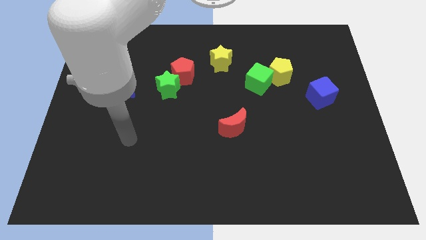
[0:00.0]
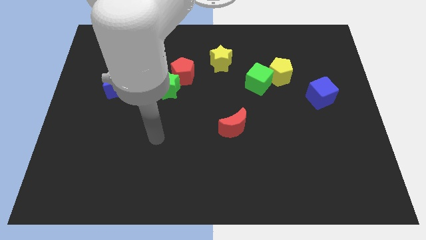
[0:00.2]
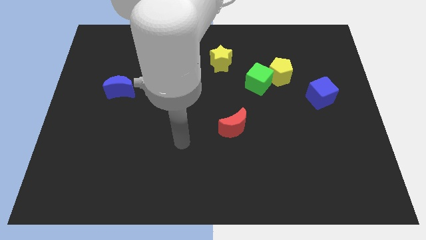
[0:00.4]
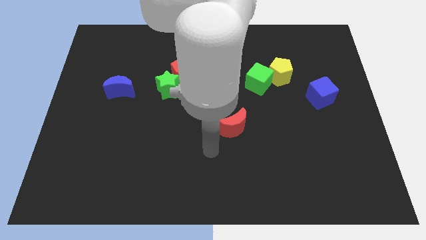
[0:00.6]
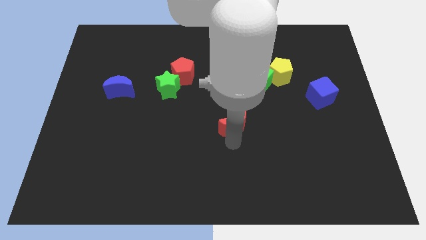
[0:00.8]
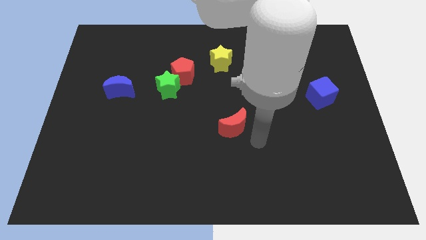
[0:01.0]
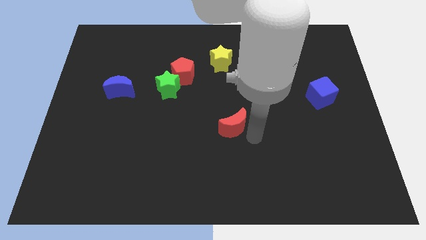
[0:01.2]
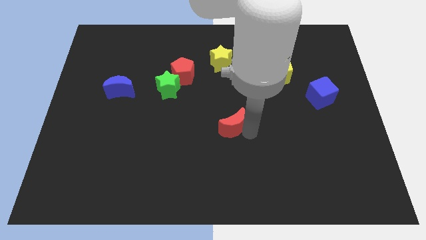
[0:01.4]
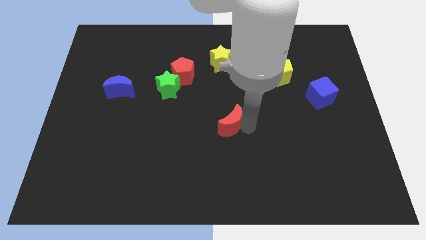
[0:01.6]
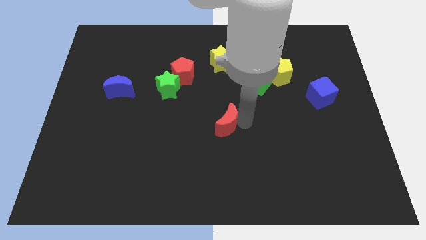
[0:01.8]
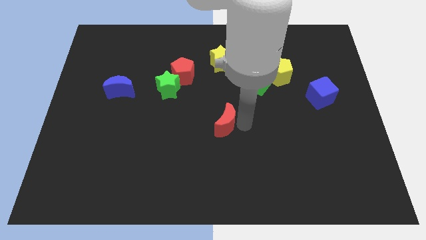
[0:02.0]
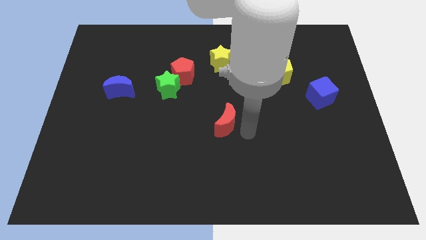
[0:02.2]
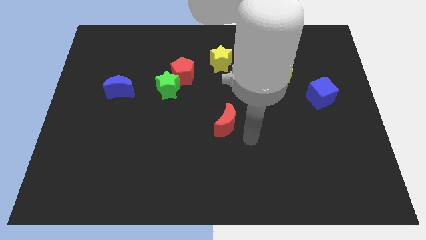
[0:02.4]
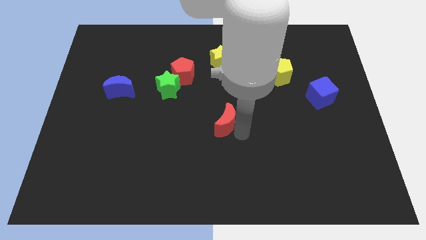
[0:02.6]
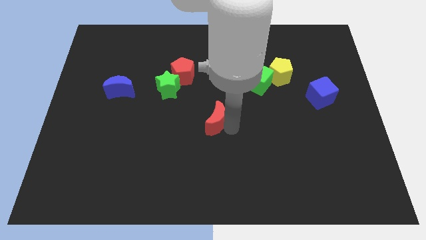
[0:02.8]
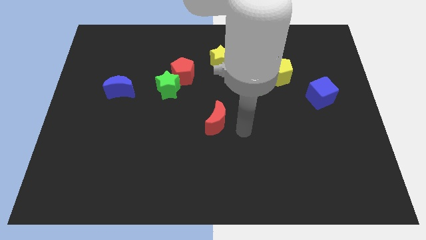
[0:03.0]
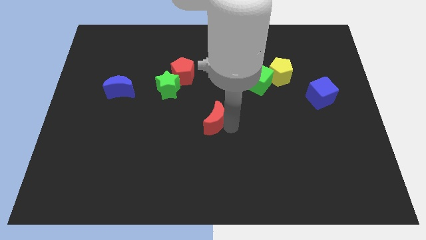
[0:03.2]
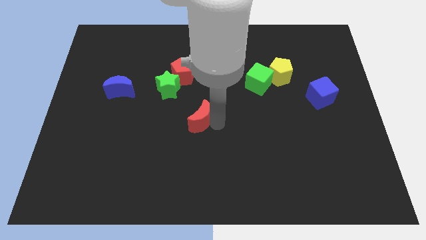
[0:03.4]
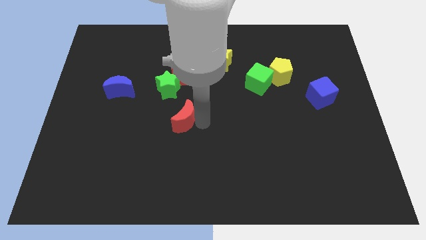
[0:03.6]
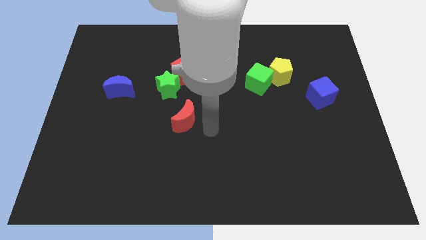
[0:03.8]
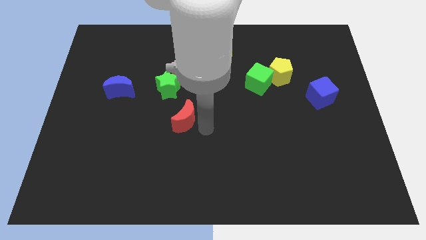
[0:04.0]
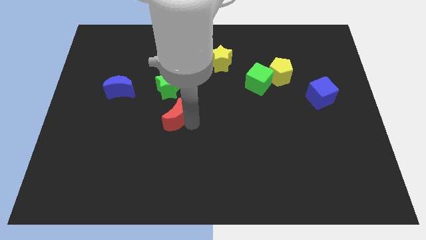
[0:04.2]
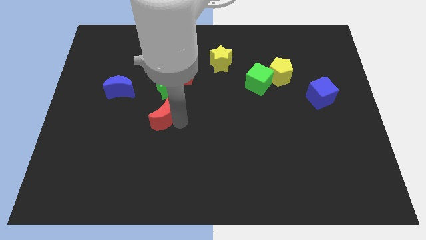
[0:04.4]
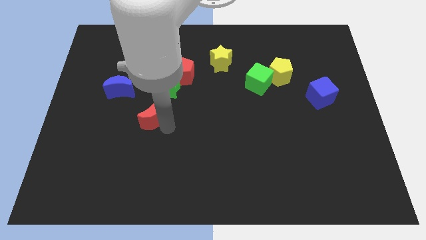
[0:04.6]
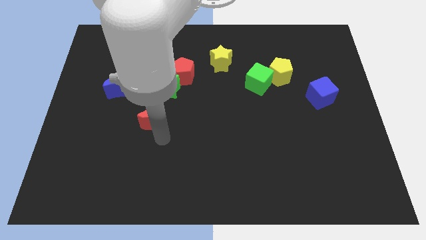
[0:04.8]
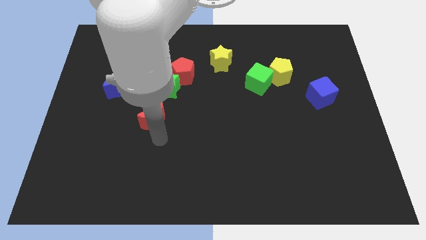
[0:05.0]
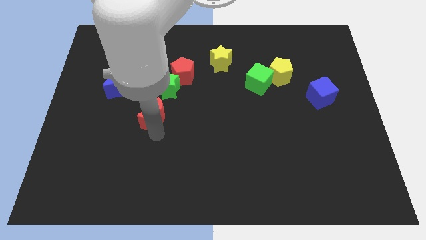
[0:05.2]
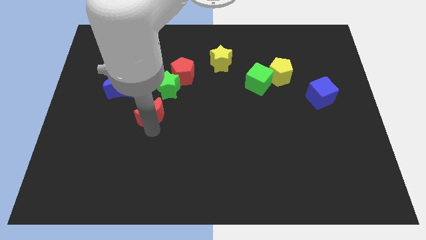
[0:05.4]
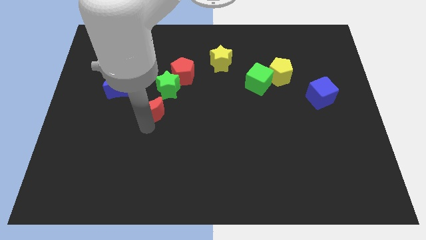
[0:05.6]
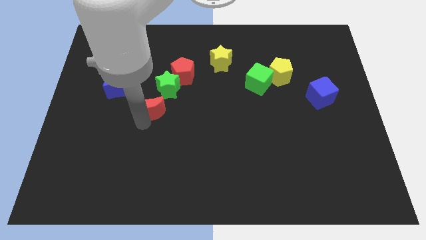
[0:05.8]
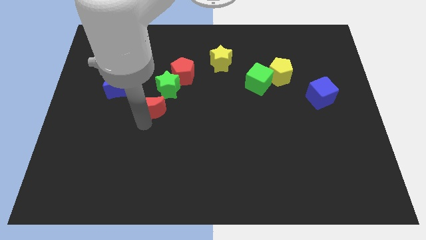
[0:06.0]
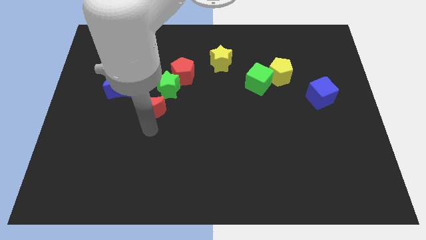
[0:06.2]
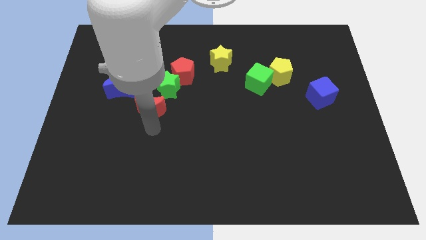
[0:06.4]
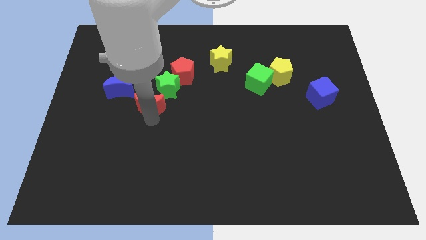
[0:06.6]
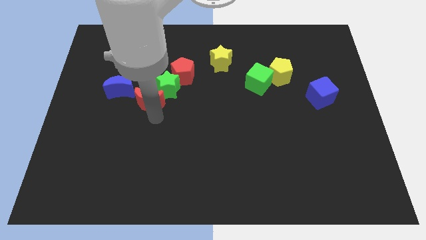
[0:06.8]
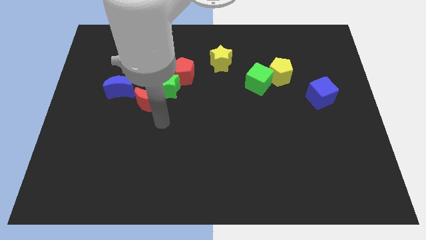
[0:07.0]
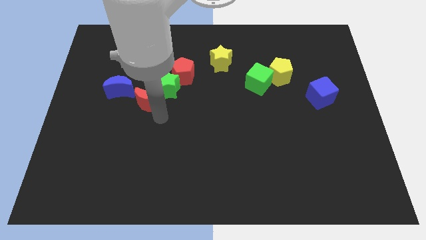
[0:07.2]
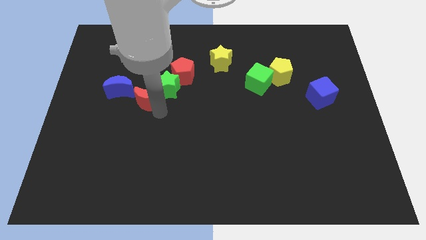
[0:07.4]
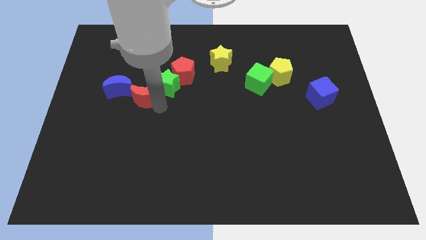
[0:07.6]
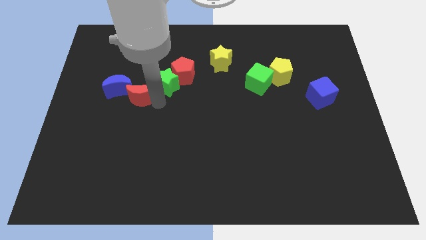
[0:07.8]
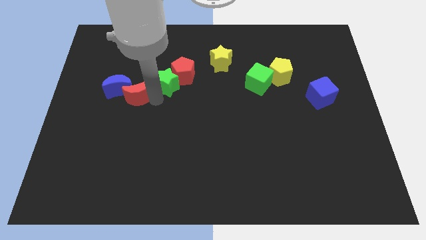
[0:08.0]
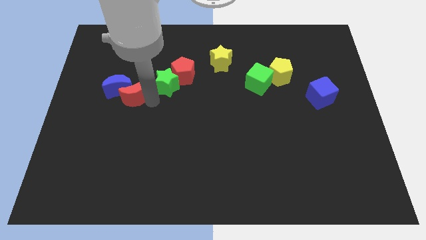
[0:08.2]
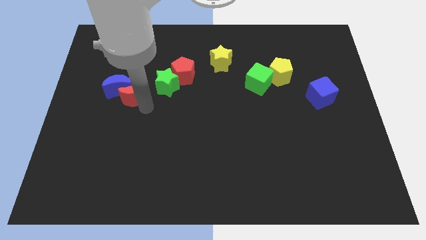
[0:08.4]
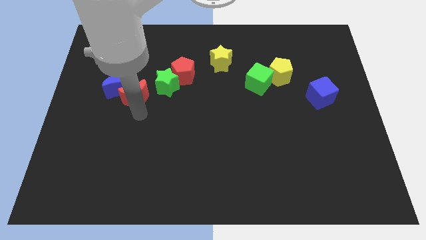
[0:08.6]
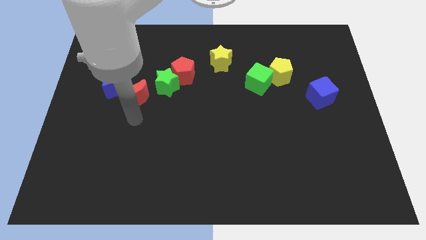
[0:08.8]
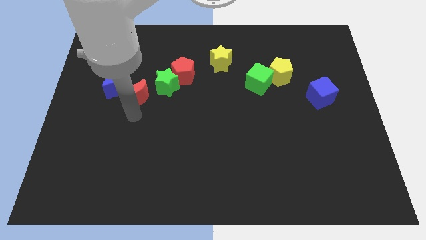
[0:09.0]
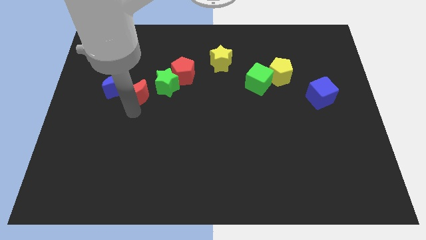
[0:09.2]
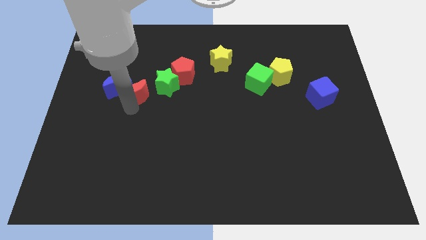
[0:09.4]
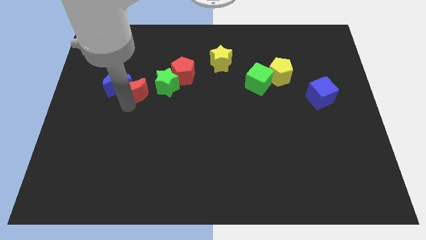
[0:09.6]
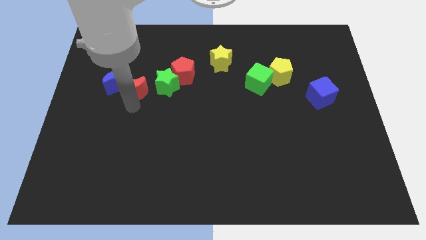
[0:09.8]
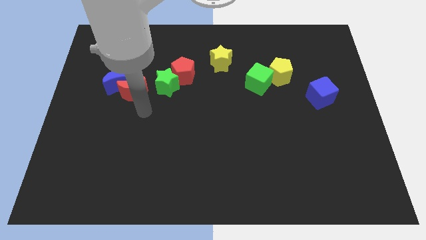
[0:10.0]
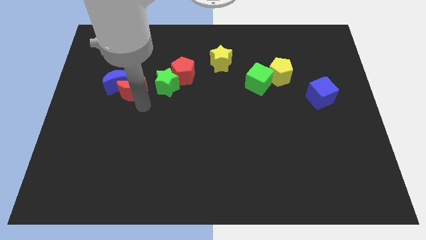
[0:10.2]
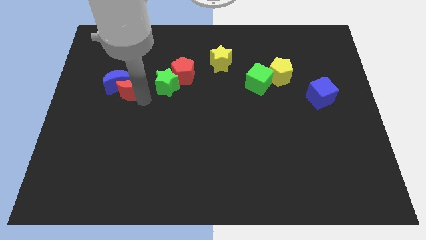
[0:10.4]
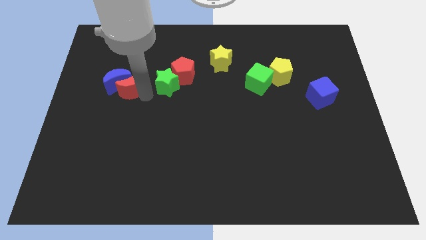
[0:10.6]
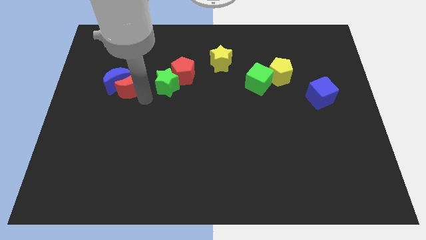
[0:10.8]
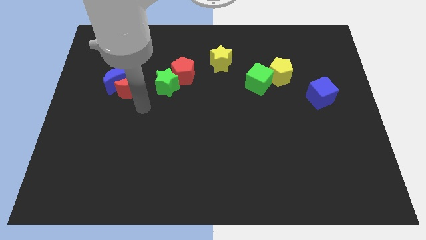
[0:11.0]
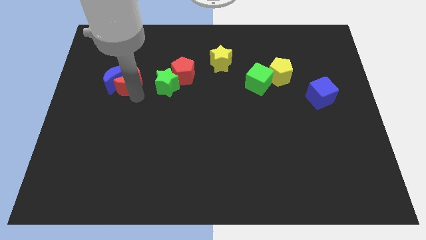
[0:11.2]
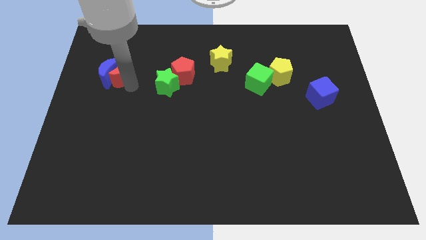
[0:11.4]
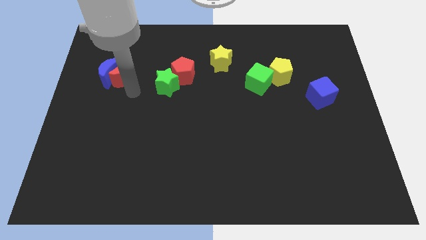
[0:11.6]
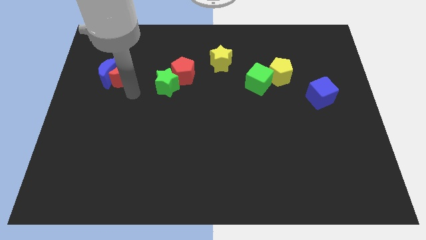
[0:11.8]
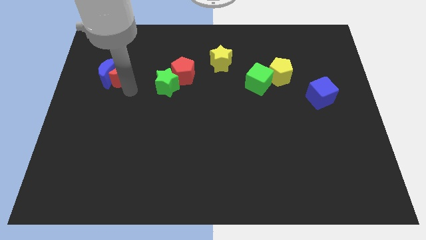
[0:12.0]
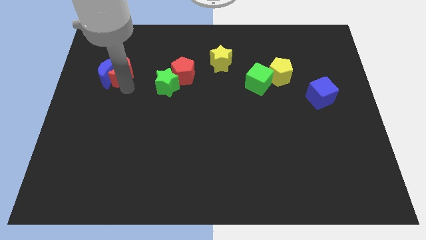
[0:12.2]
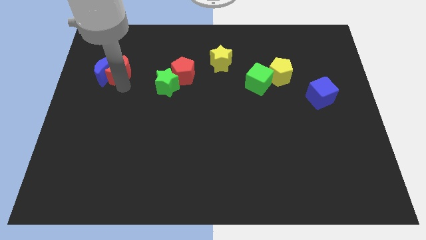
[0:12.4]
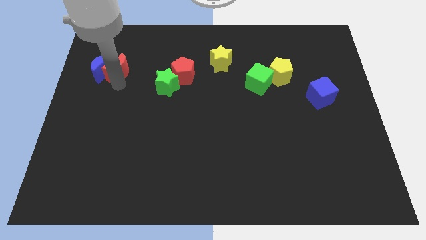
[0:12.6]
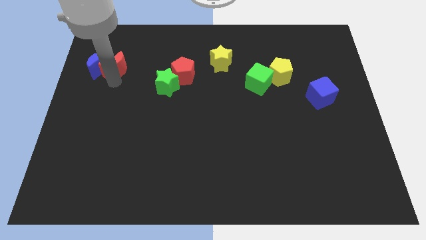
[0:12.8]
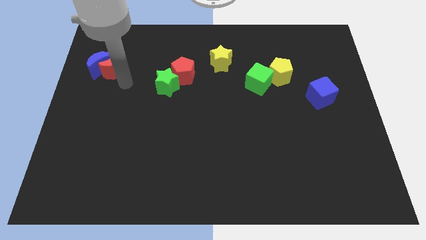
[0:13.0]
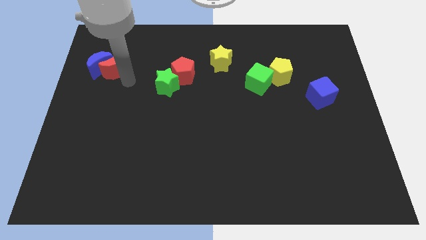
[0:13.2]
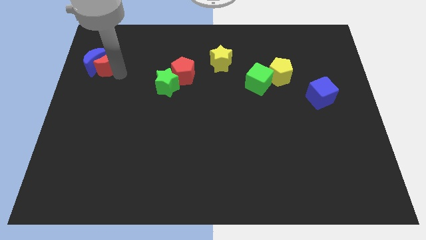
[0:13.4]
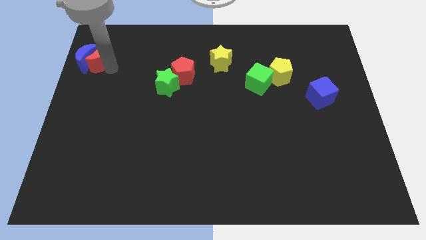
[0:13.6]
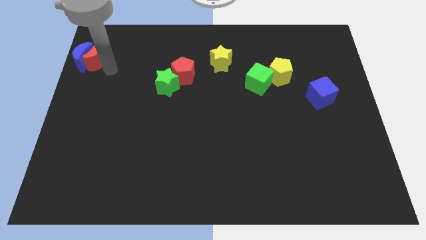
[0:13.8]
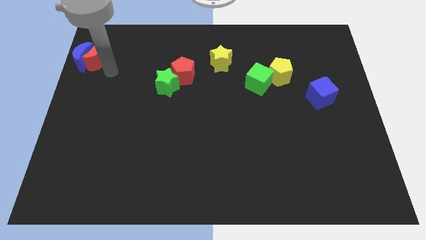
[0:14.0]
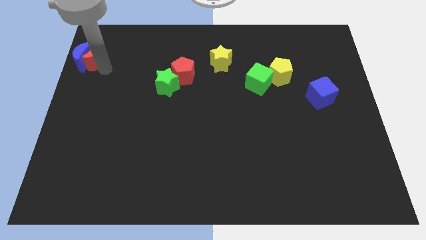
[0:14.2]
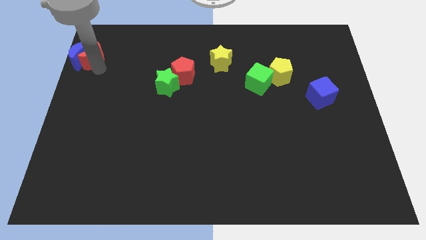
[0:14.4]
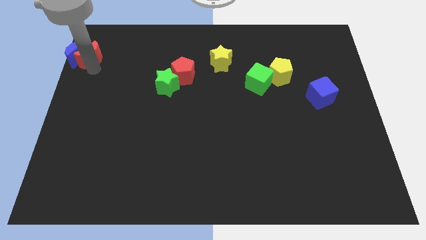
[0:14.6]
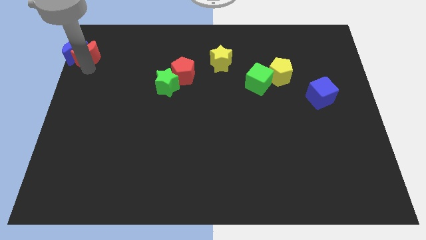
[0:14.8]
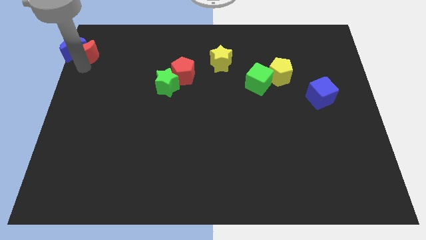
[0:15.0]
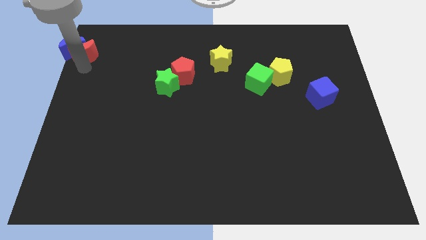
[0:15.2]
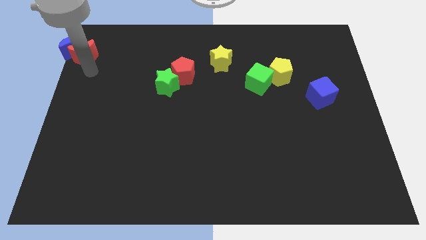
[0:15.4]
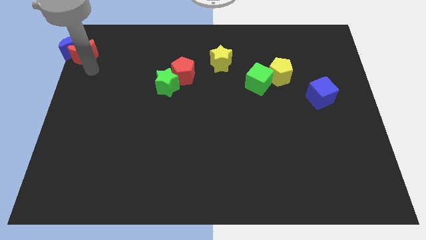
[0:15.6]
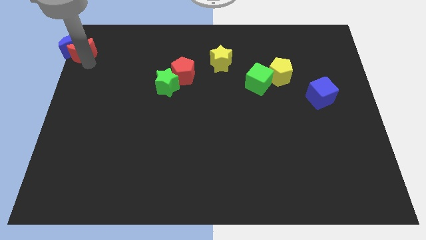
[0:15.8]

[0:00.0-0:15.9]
move the red moon to the upper left corner
